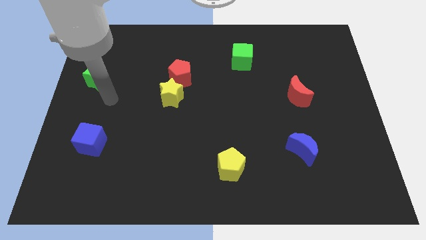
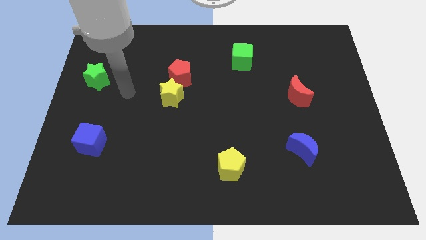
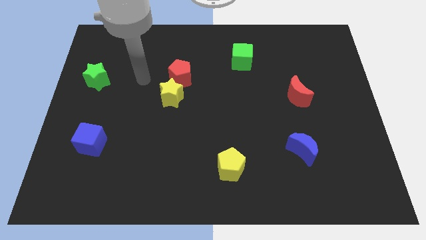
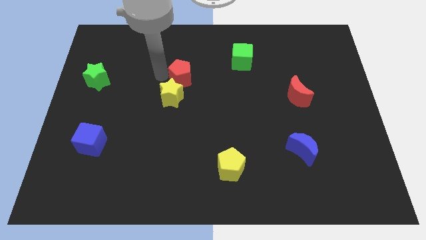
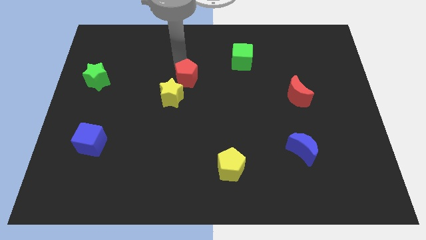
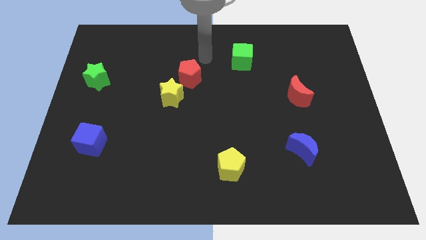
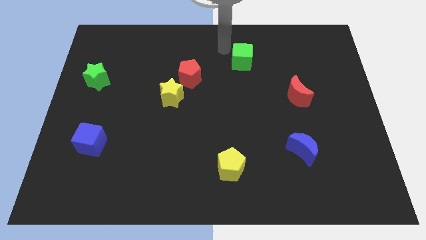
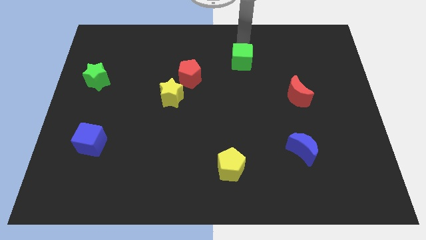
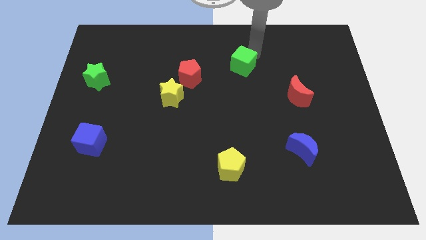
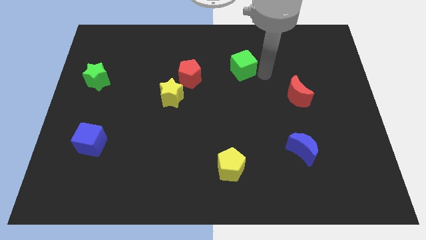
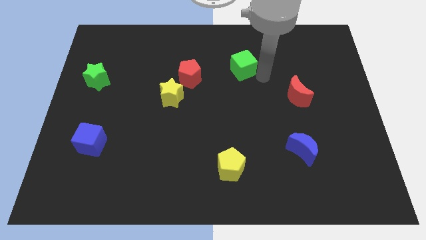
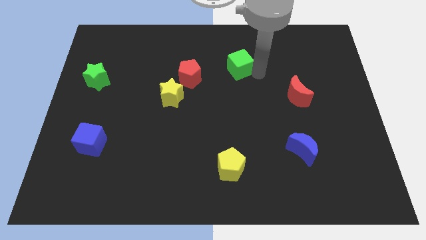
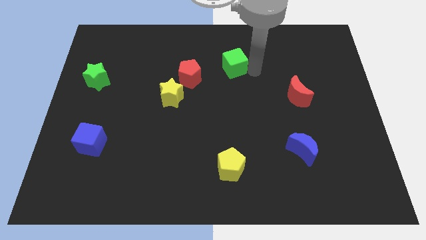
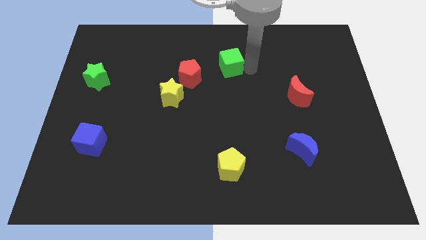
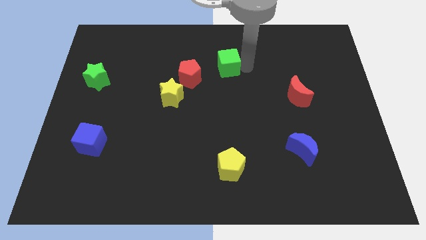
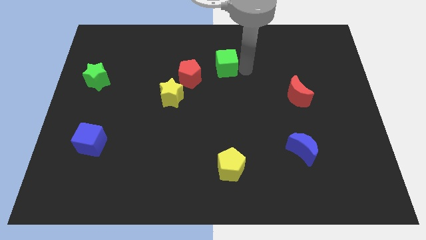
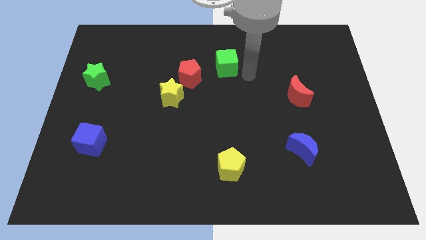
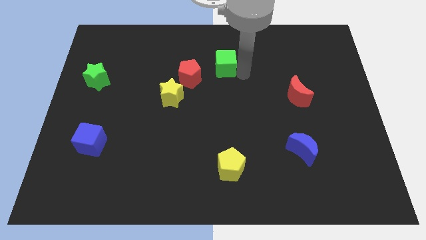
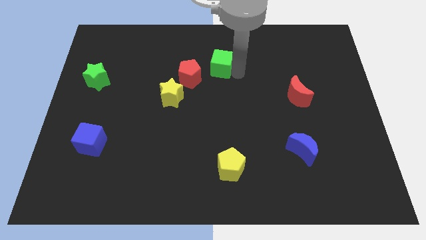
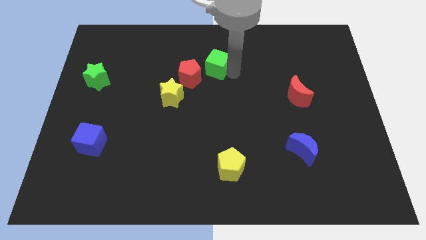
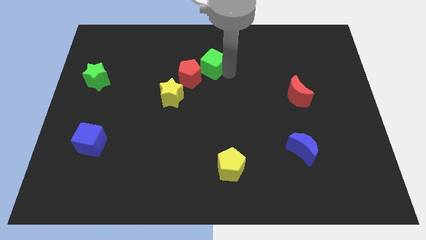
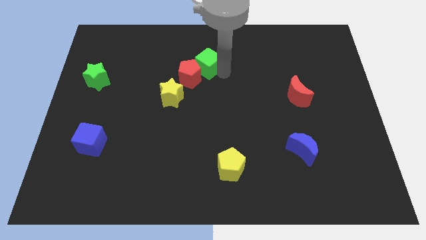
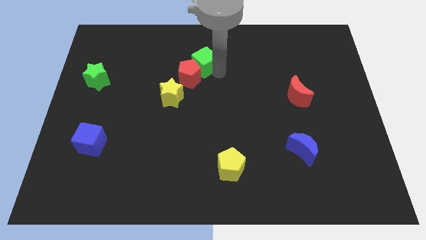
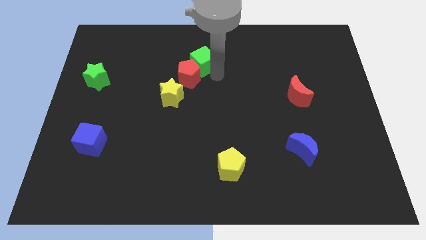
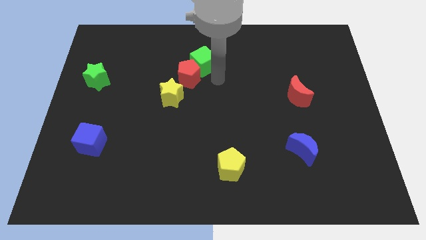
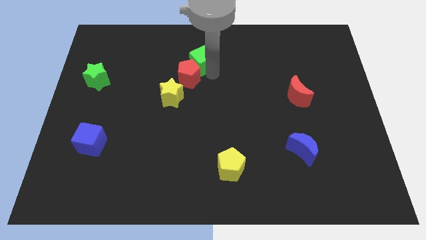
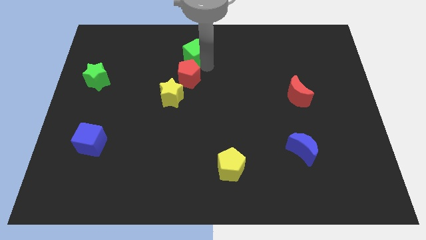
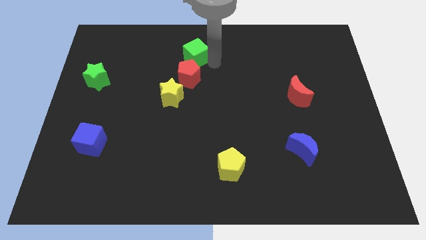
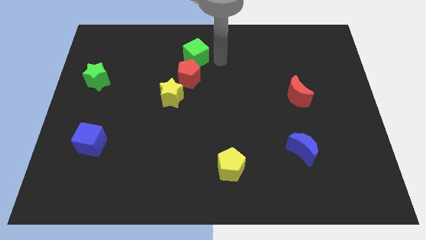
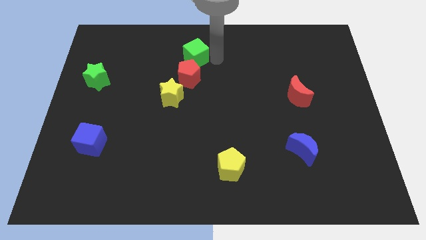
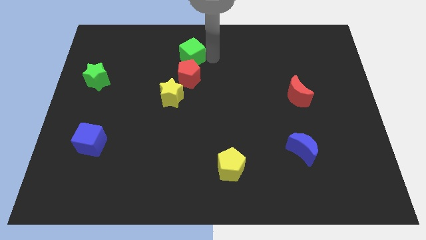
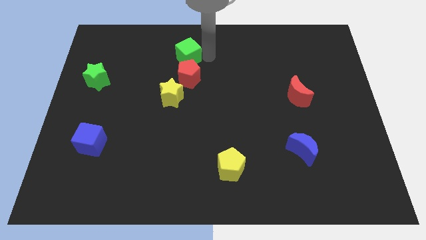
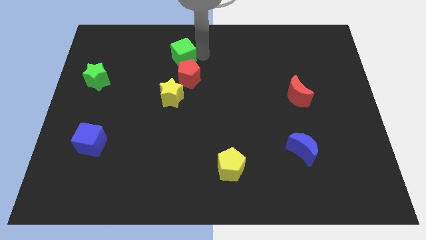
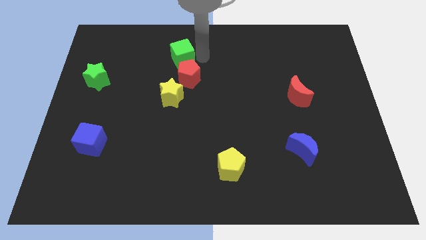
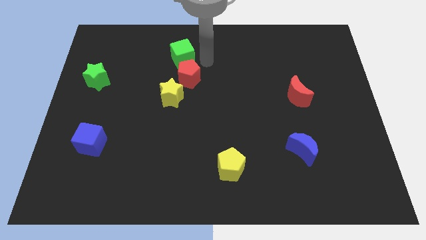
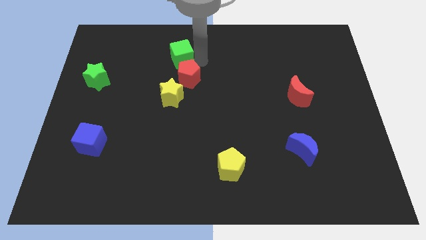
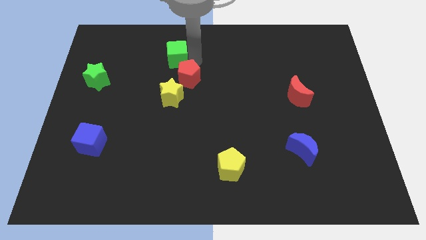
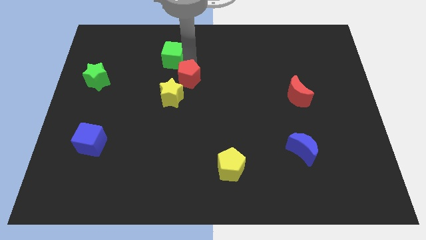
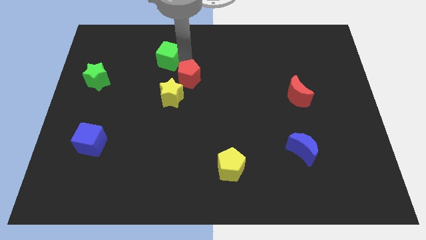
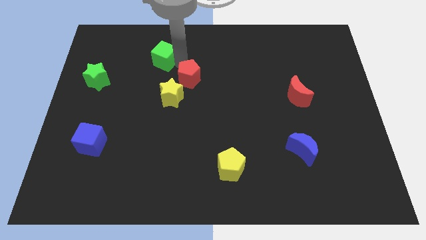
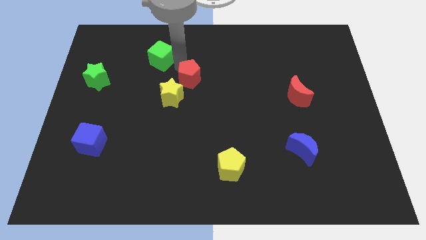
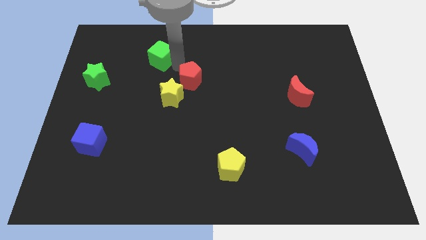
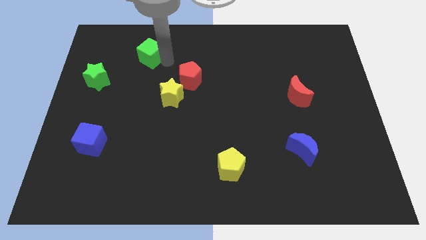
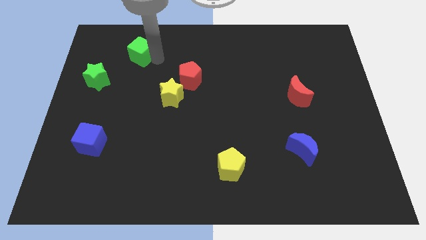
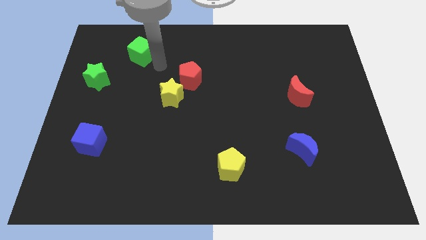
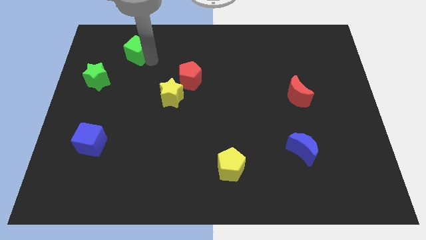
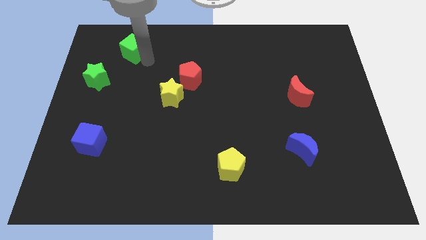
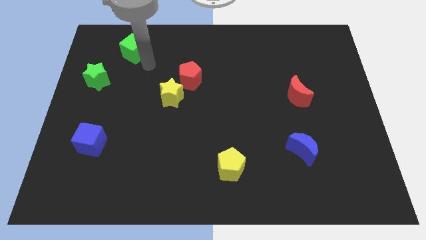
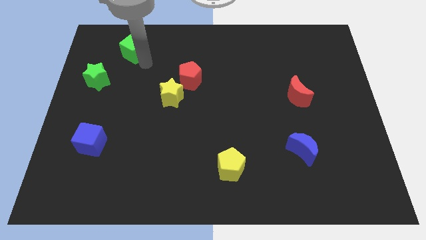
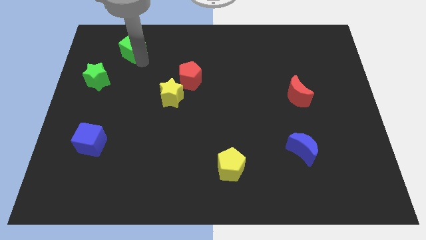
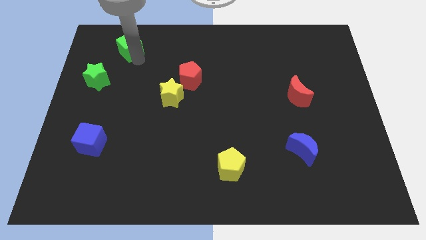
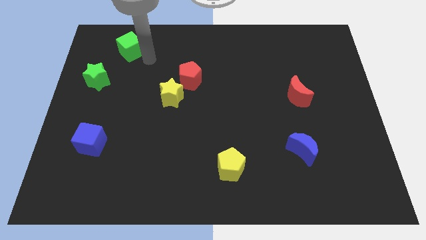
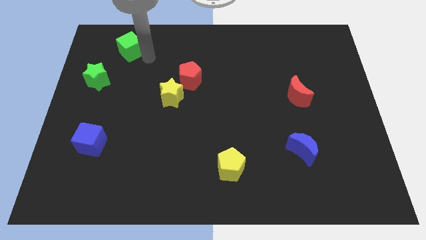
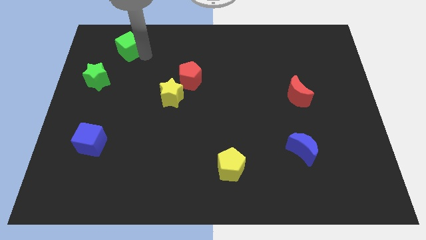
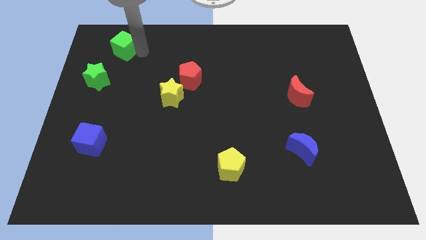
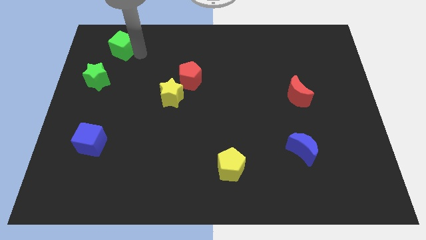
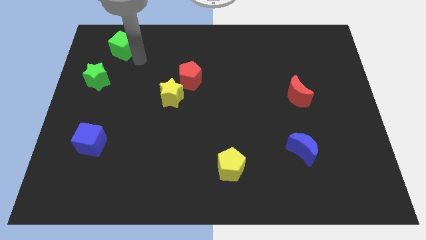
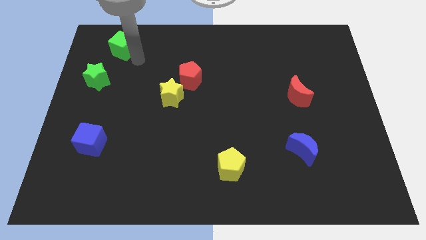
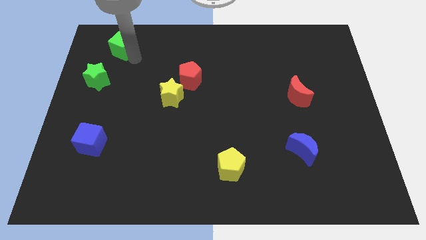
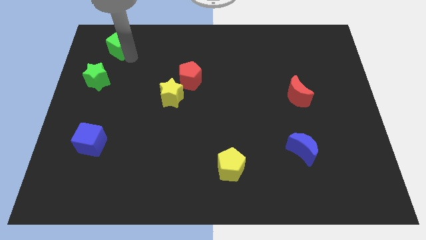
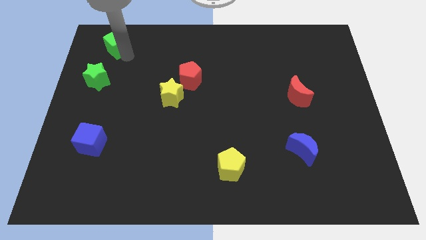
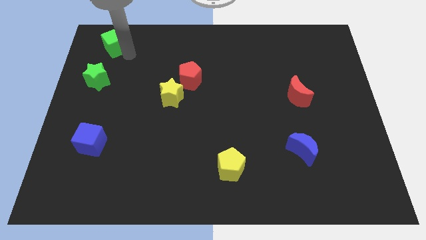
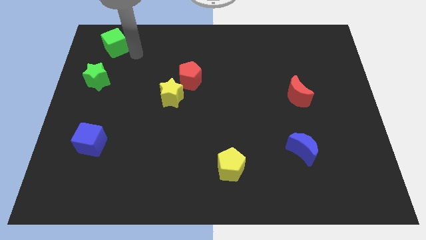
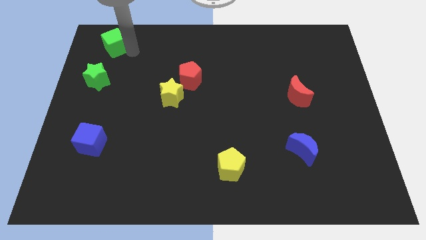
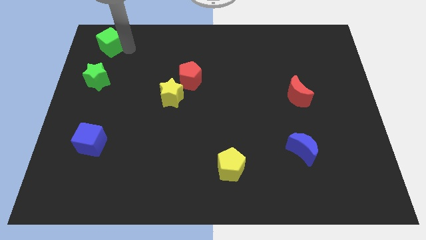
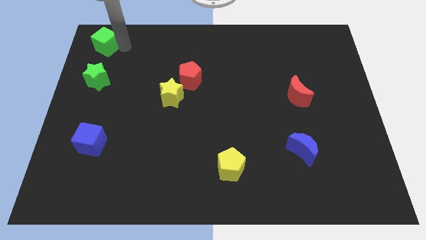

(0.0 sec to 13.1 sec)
push the green cube to the top left
